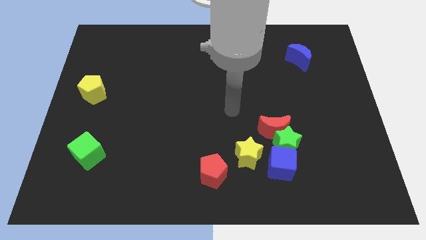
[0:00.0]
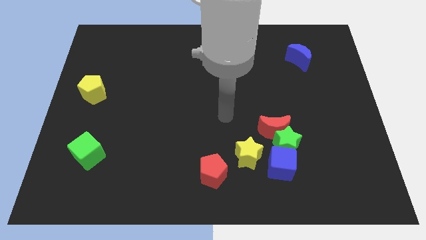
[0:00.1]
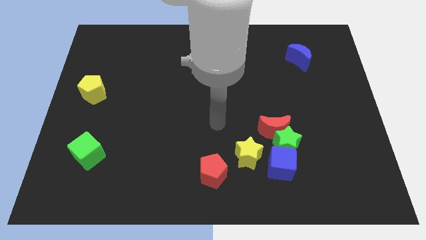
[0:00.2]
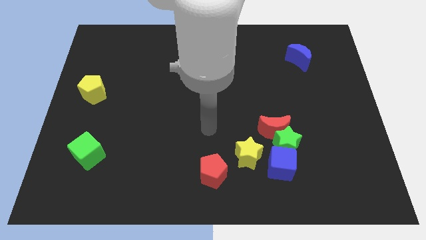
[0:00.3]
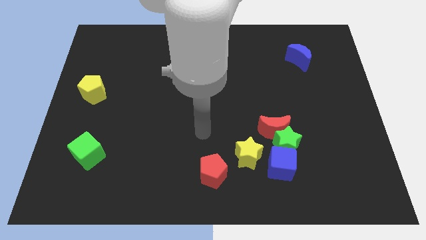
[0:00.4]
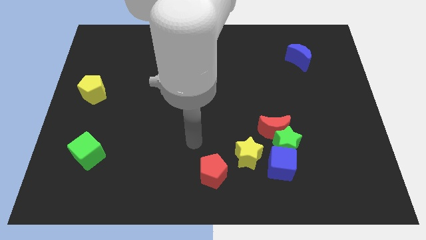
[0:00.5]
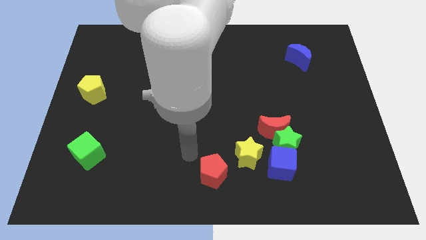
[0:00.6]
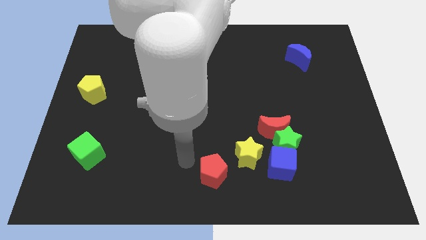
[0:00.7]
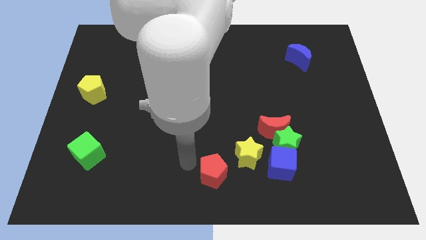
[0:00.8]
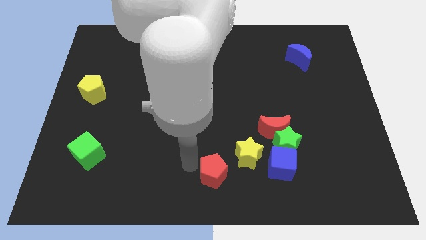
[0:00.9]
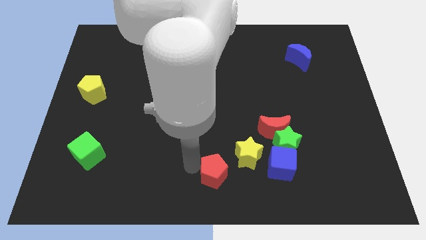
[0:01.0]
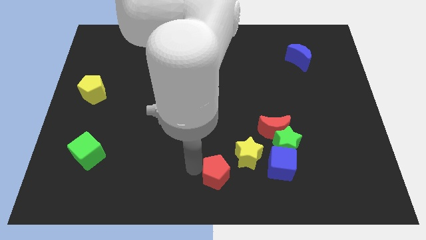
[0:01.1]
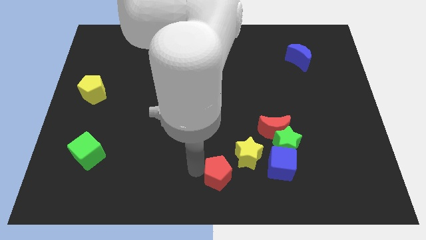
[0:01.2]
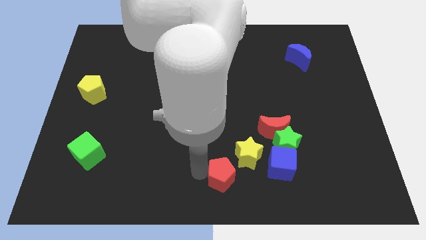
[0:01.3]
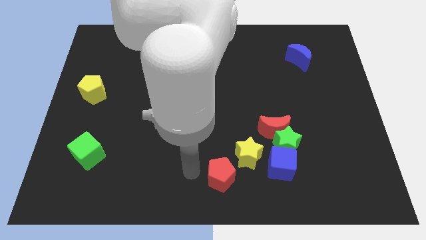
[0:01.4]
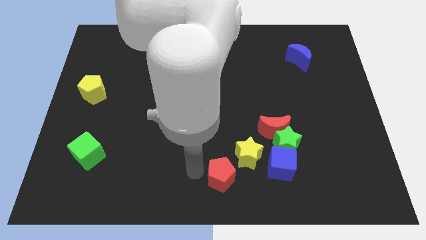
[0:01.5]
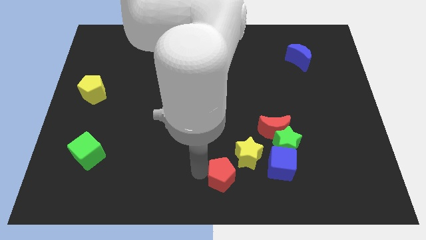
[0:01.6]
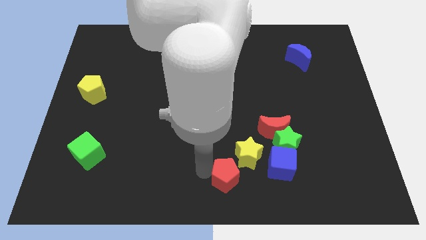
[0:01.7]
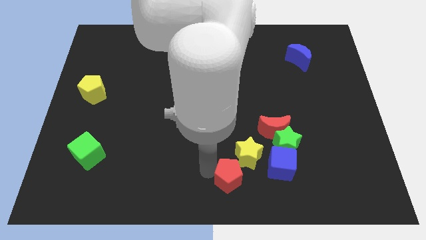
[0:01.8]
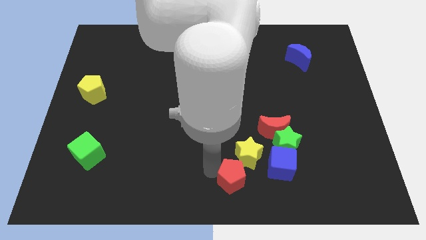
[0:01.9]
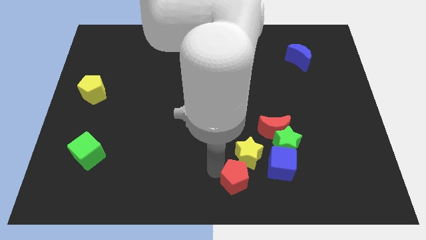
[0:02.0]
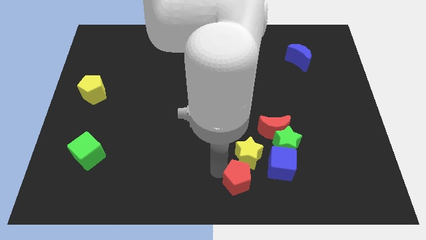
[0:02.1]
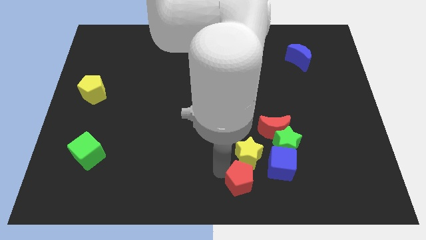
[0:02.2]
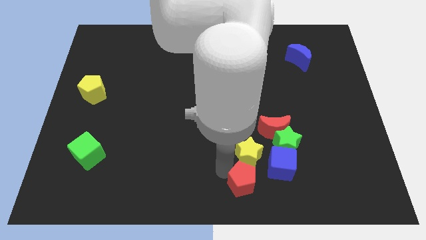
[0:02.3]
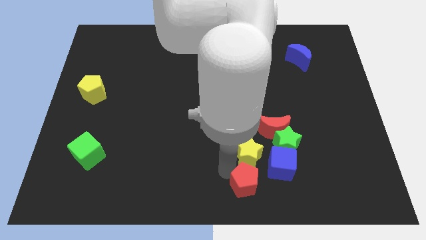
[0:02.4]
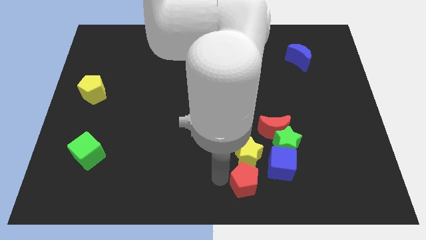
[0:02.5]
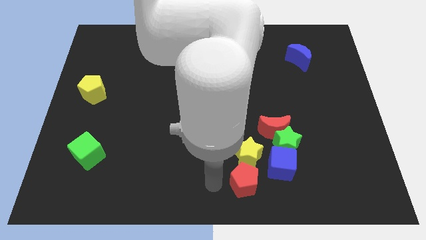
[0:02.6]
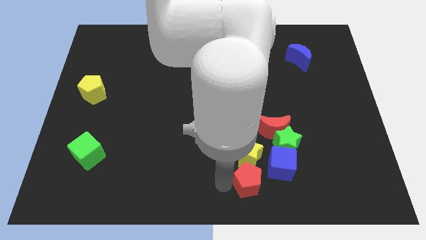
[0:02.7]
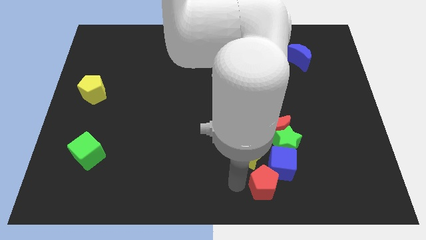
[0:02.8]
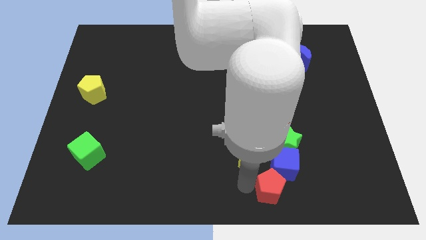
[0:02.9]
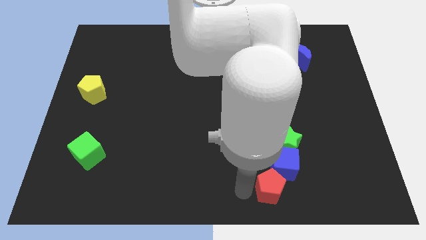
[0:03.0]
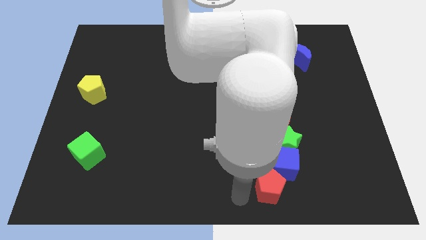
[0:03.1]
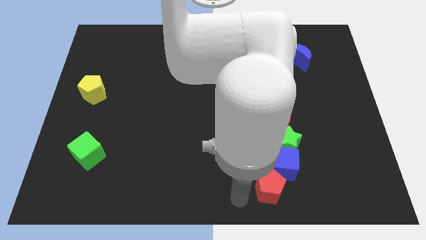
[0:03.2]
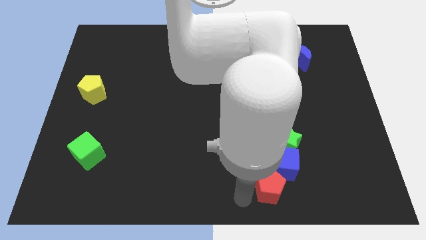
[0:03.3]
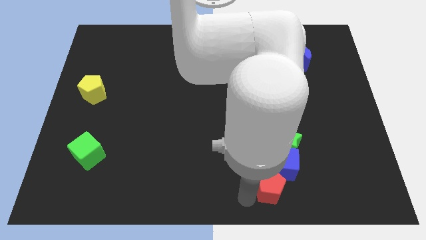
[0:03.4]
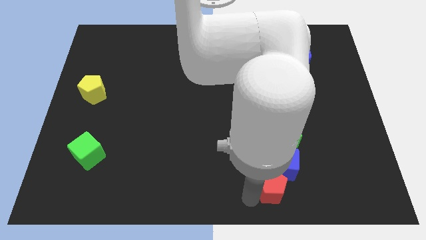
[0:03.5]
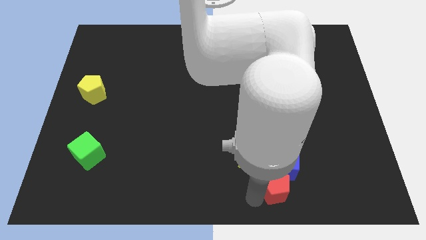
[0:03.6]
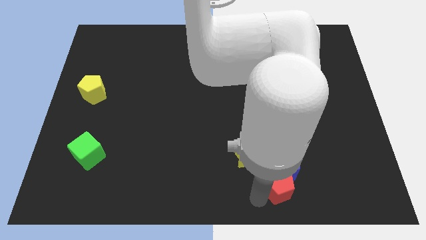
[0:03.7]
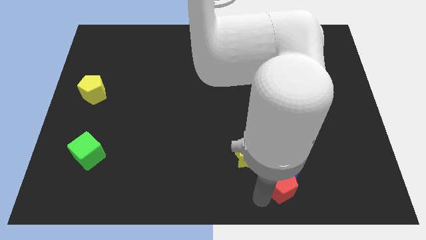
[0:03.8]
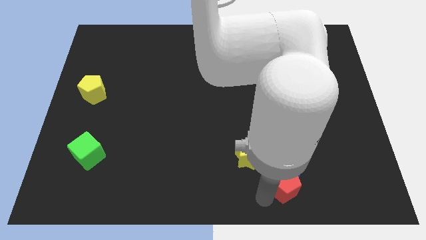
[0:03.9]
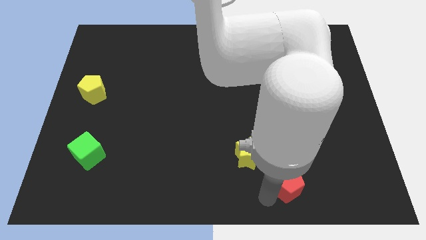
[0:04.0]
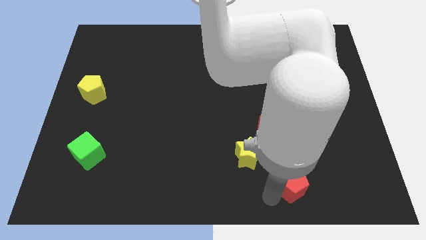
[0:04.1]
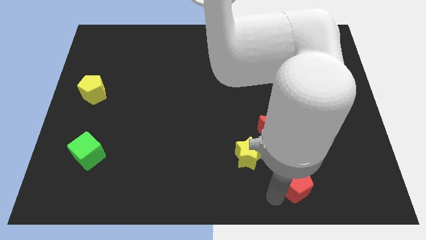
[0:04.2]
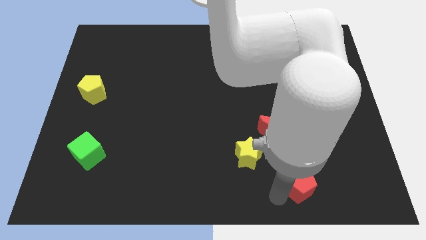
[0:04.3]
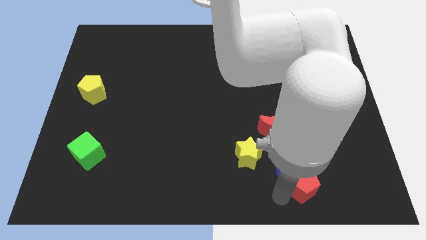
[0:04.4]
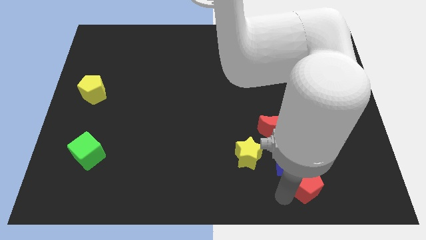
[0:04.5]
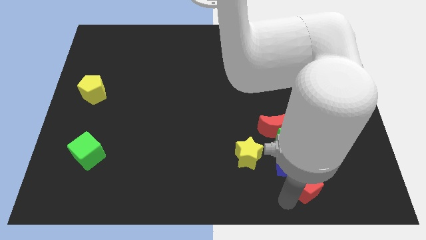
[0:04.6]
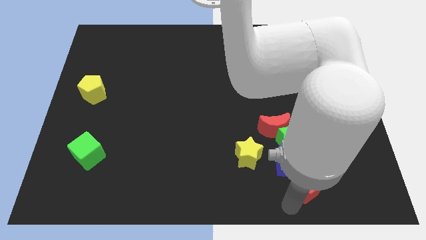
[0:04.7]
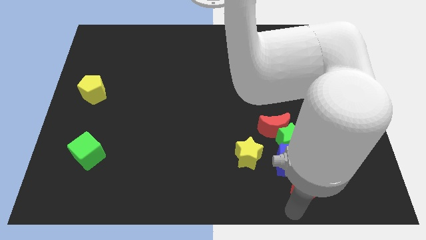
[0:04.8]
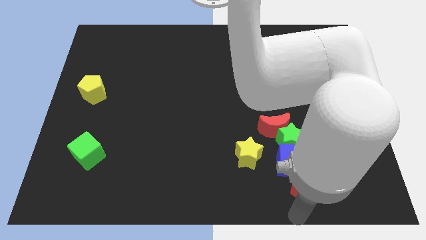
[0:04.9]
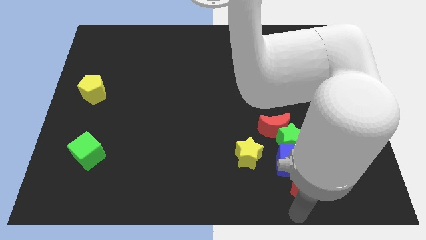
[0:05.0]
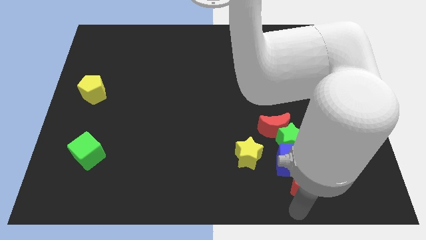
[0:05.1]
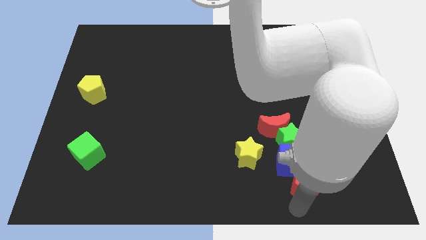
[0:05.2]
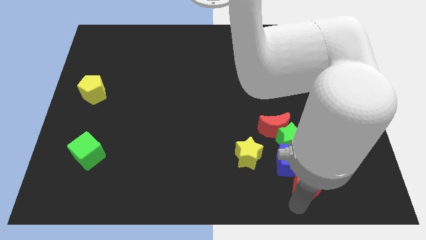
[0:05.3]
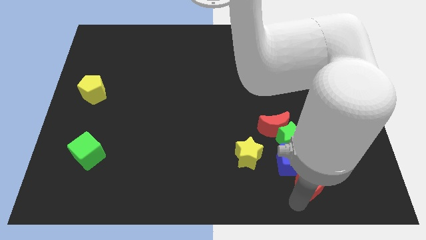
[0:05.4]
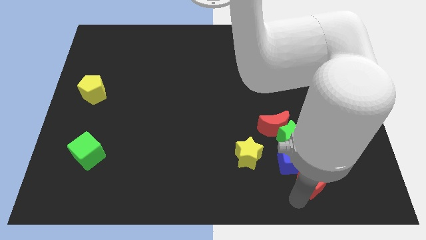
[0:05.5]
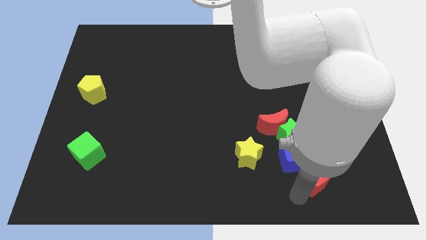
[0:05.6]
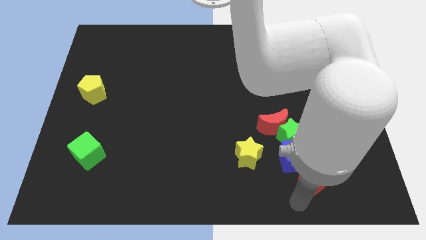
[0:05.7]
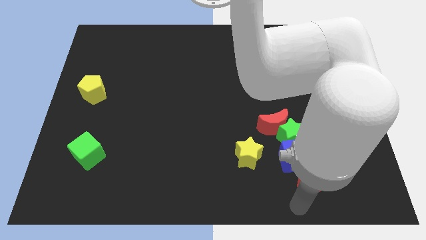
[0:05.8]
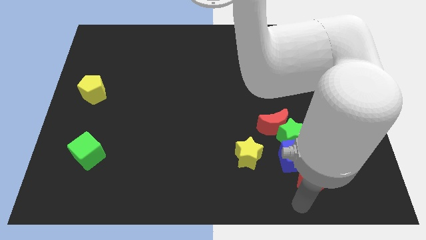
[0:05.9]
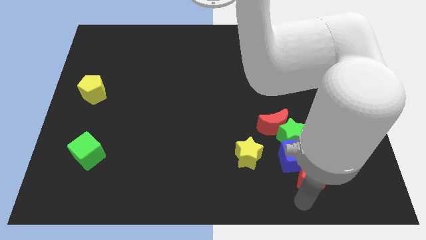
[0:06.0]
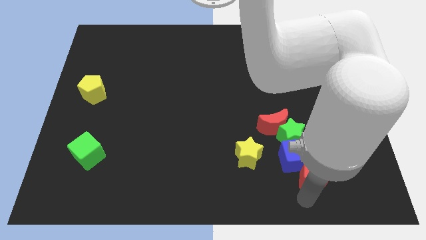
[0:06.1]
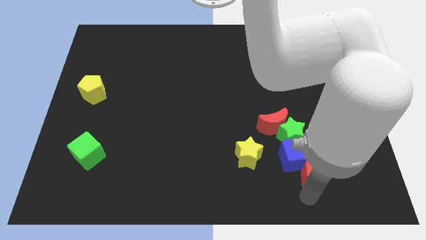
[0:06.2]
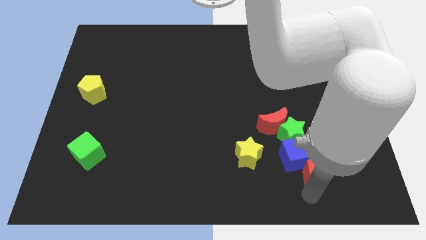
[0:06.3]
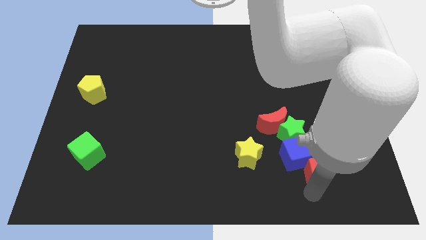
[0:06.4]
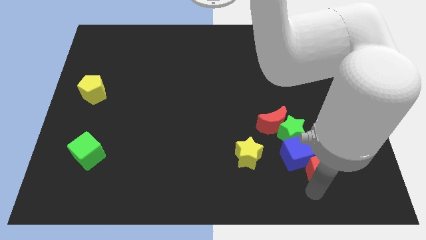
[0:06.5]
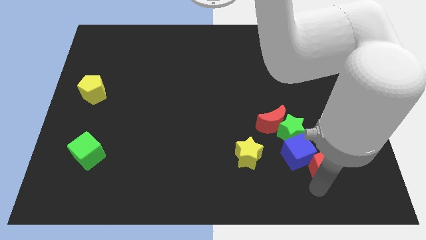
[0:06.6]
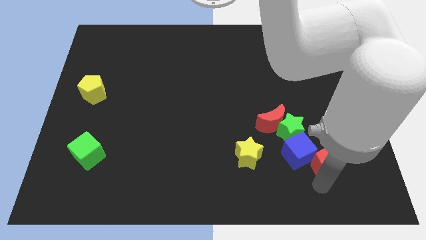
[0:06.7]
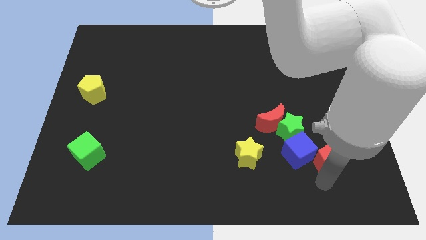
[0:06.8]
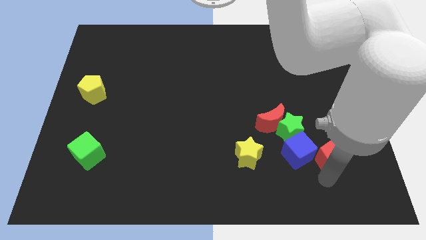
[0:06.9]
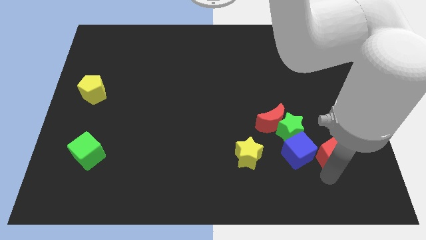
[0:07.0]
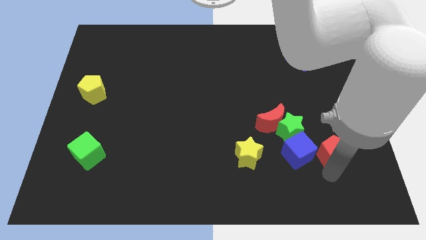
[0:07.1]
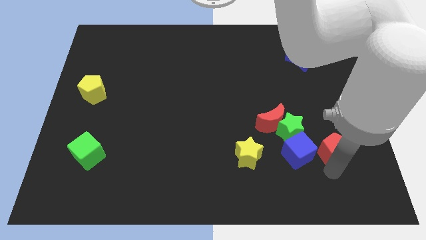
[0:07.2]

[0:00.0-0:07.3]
put the red pentagon just right of the green star
